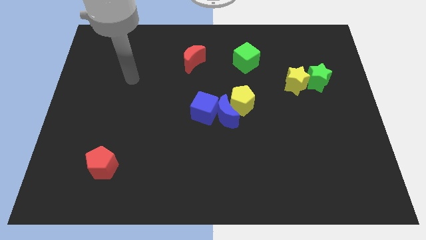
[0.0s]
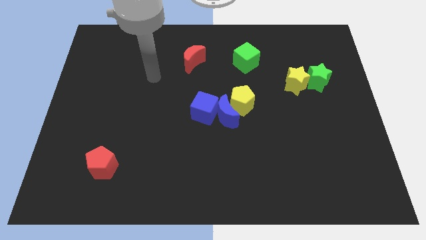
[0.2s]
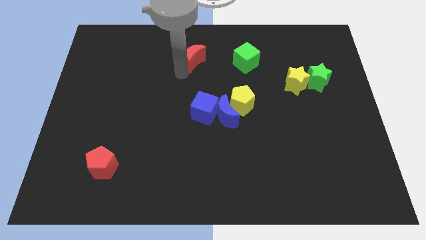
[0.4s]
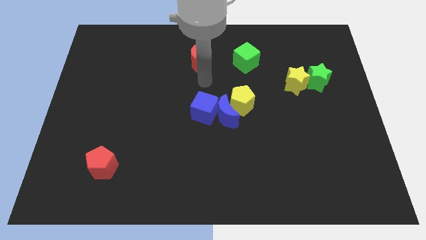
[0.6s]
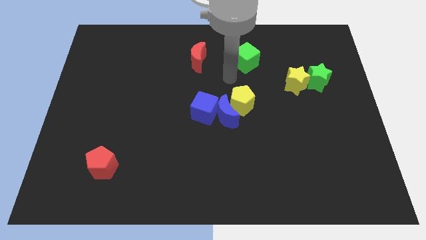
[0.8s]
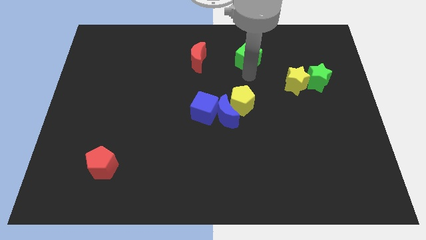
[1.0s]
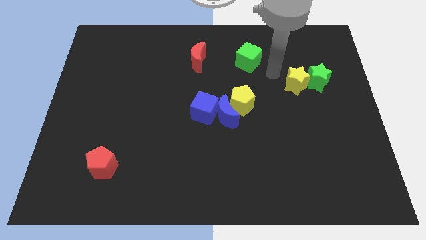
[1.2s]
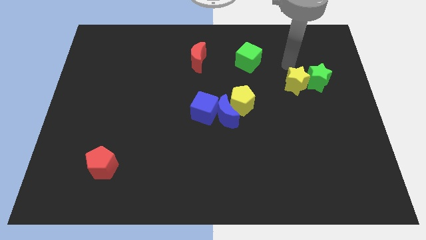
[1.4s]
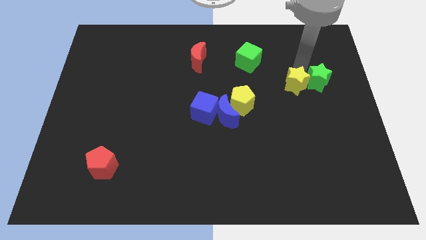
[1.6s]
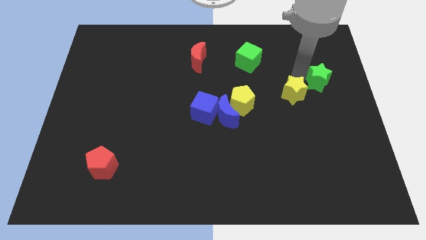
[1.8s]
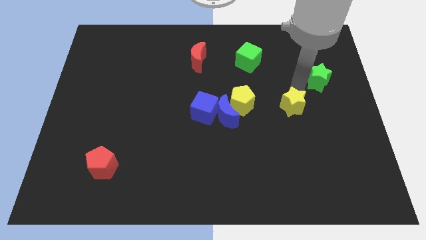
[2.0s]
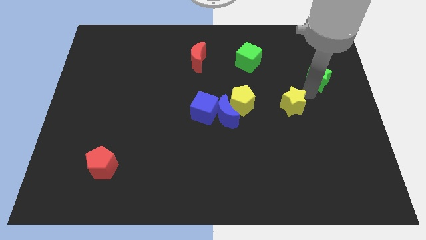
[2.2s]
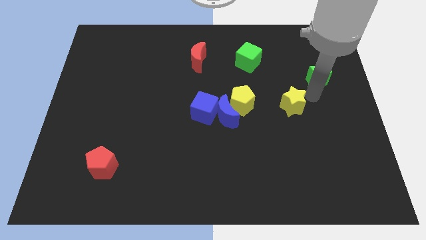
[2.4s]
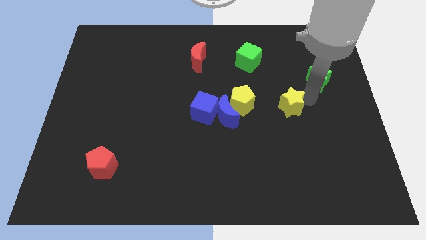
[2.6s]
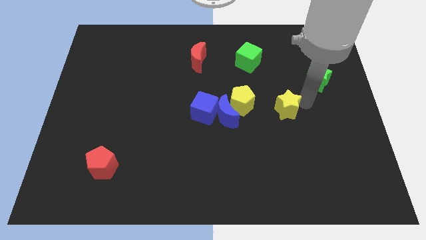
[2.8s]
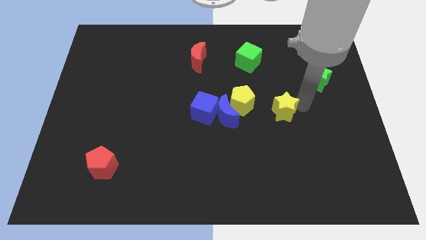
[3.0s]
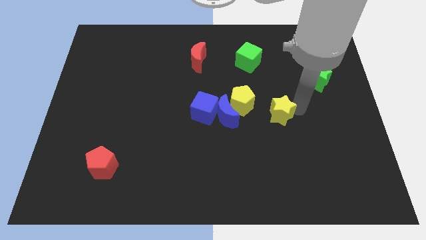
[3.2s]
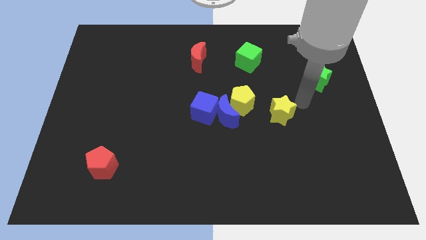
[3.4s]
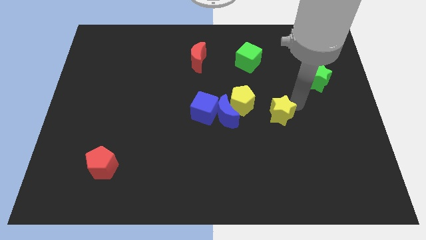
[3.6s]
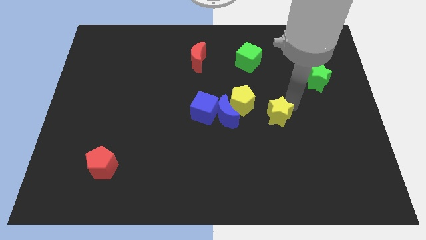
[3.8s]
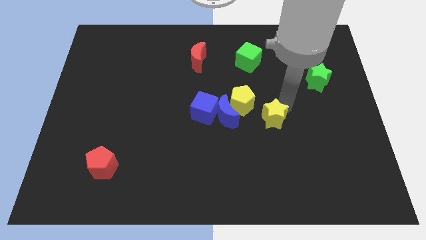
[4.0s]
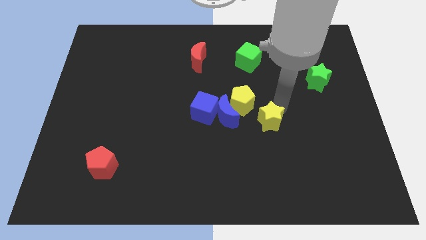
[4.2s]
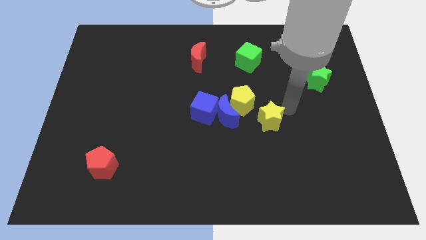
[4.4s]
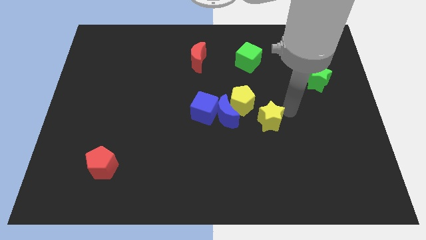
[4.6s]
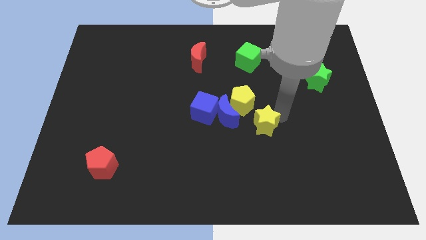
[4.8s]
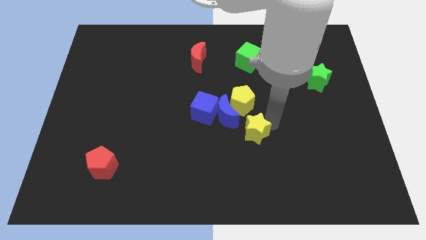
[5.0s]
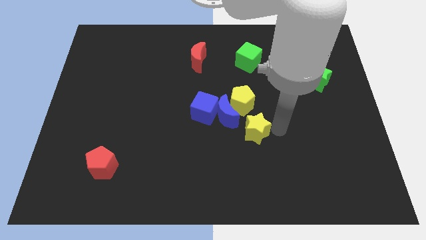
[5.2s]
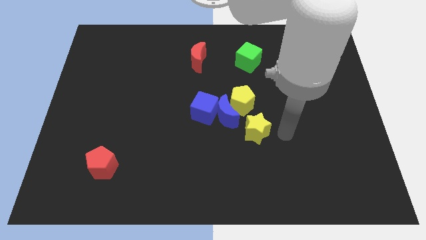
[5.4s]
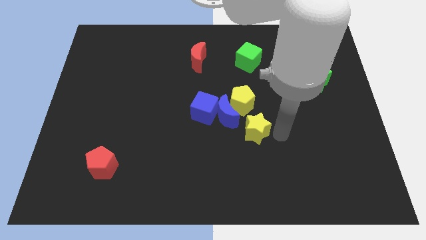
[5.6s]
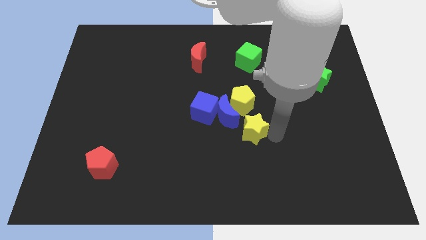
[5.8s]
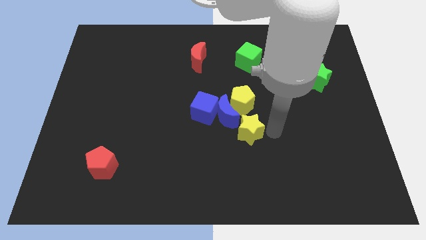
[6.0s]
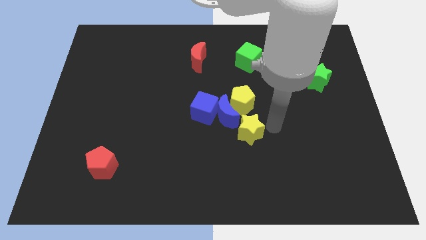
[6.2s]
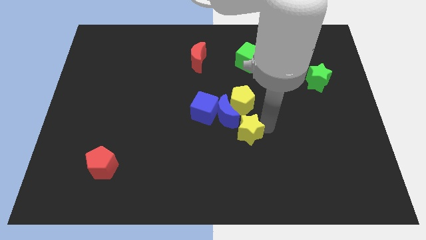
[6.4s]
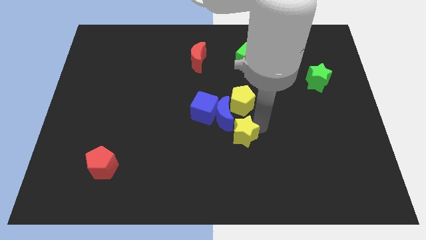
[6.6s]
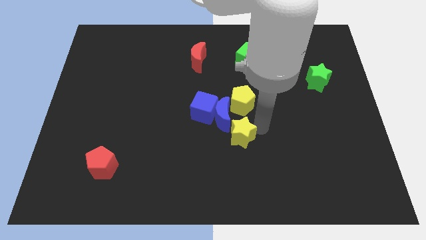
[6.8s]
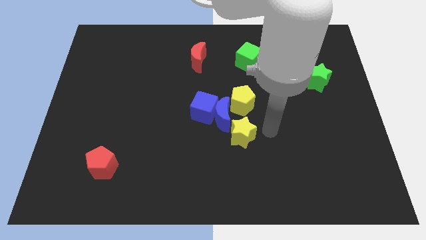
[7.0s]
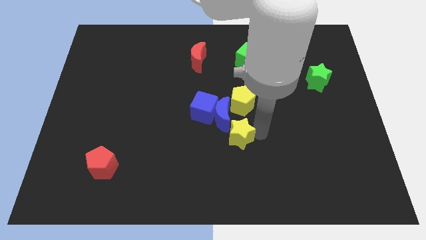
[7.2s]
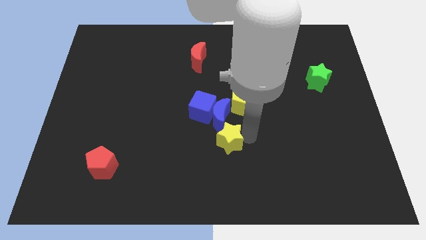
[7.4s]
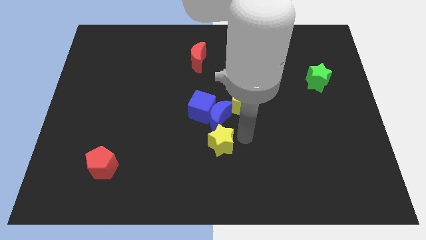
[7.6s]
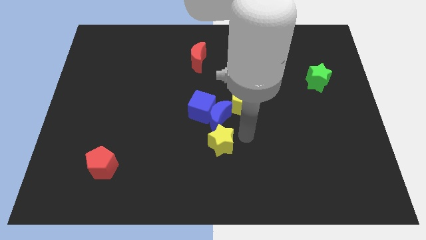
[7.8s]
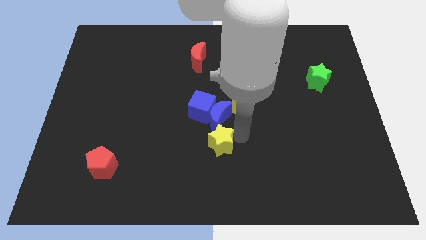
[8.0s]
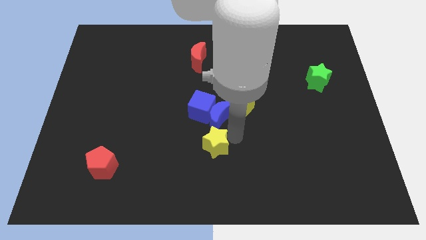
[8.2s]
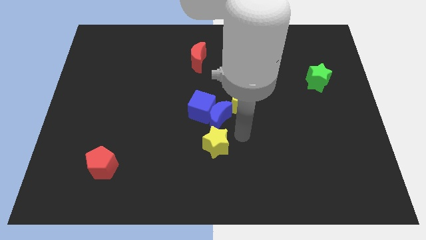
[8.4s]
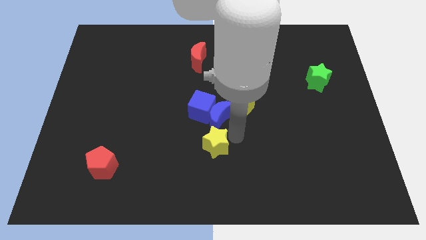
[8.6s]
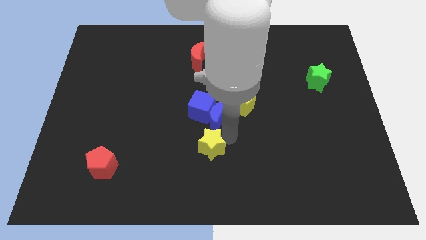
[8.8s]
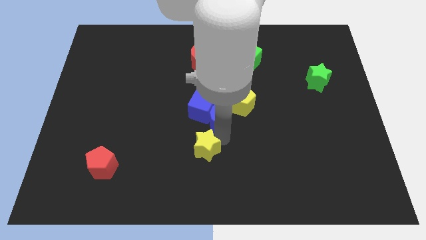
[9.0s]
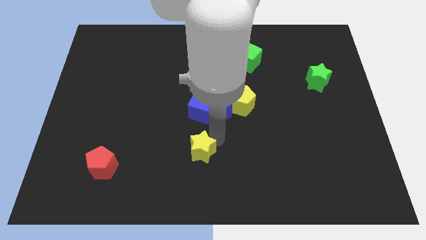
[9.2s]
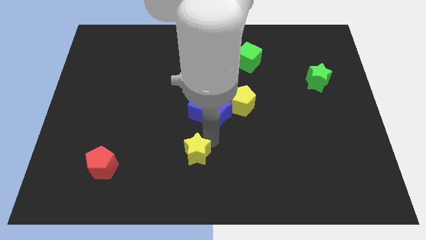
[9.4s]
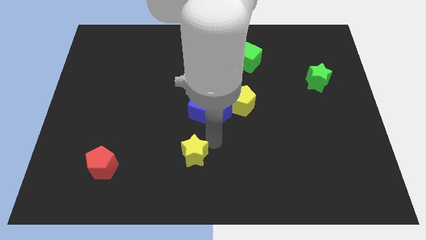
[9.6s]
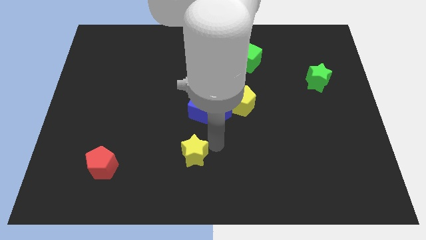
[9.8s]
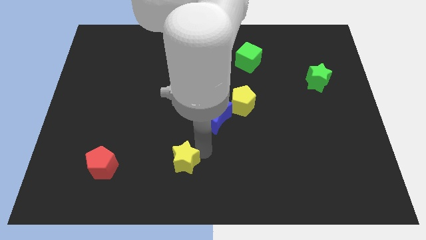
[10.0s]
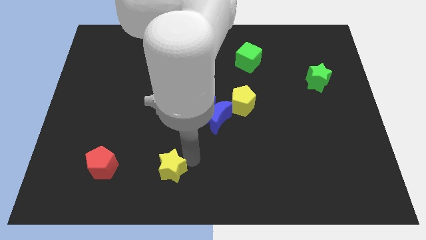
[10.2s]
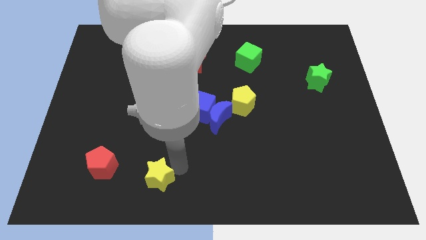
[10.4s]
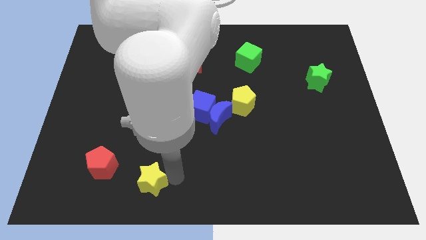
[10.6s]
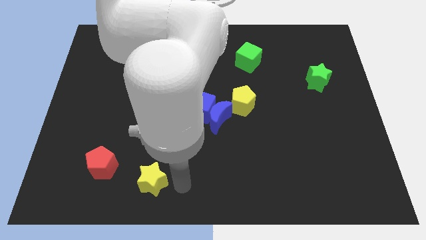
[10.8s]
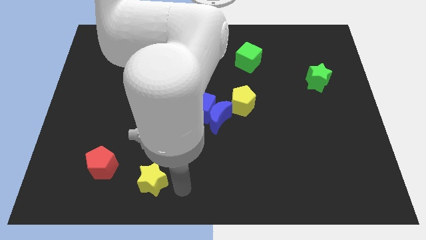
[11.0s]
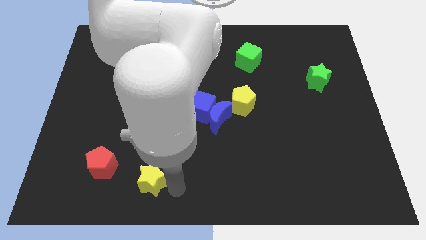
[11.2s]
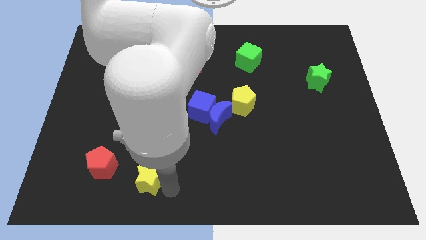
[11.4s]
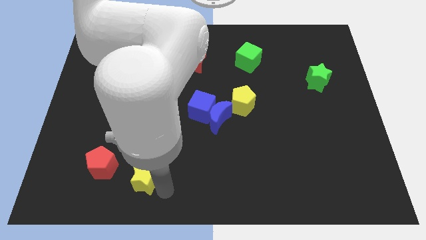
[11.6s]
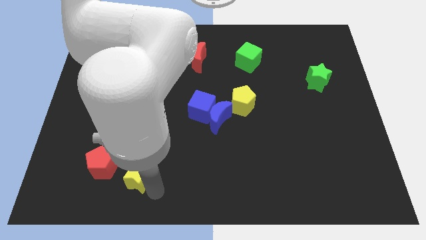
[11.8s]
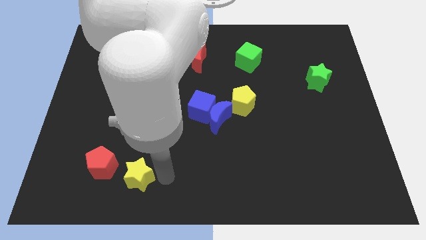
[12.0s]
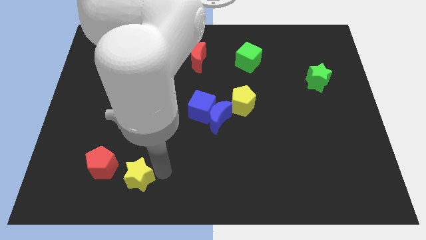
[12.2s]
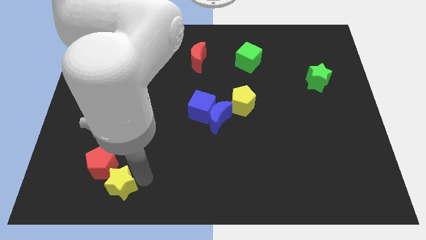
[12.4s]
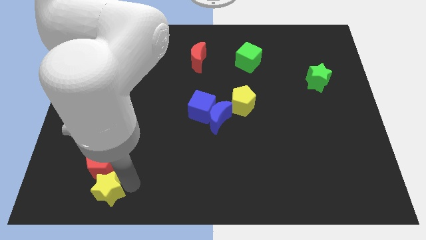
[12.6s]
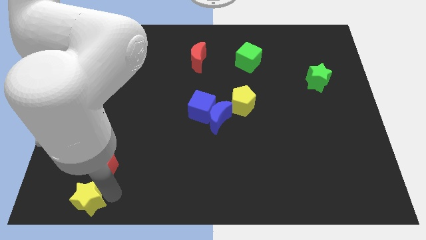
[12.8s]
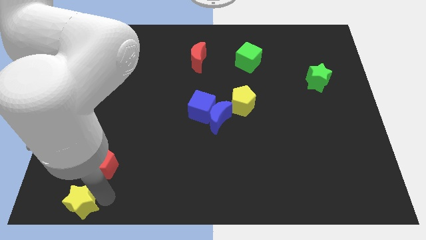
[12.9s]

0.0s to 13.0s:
slide the yellow star to the lower left corner

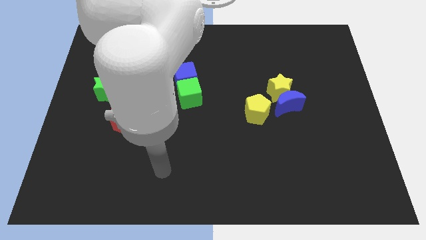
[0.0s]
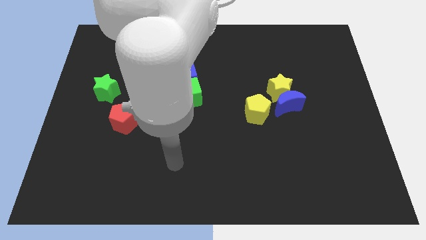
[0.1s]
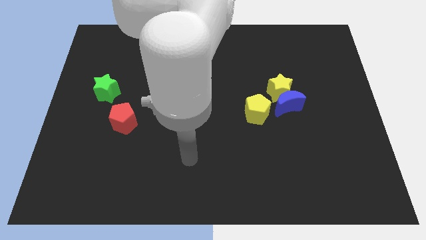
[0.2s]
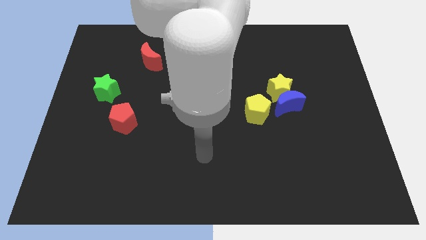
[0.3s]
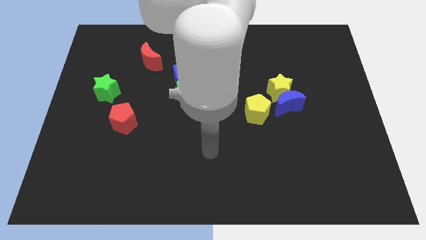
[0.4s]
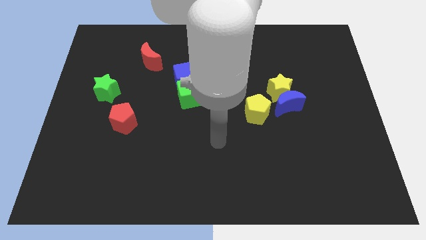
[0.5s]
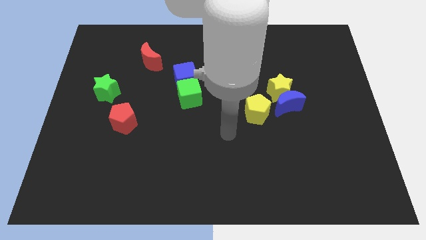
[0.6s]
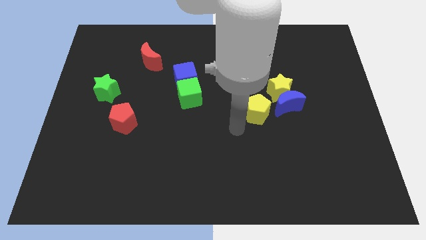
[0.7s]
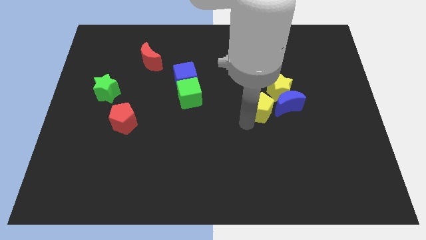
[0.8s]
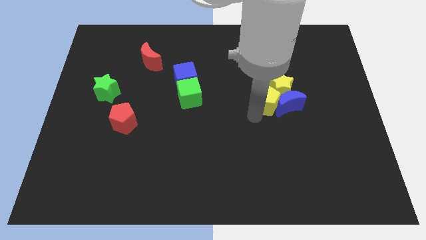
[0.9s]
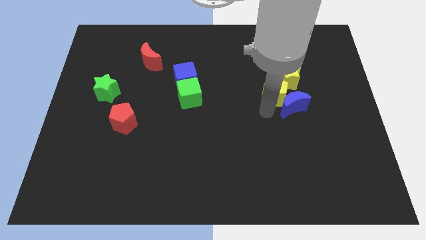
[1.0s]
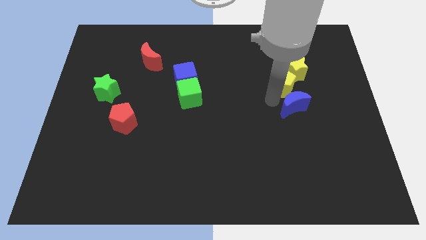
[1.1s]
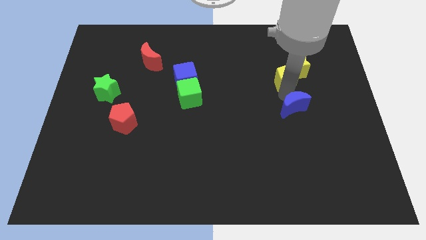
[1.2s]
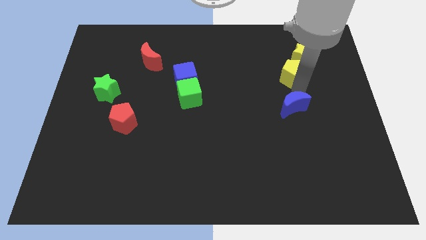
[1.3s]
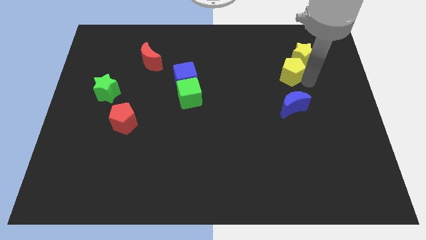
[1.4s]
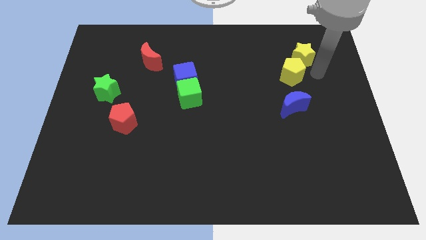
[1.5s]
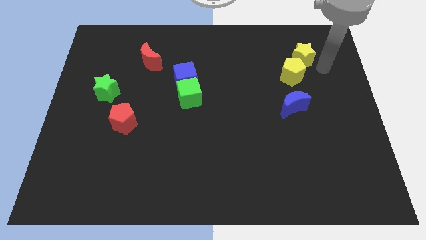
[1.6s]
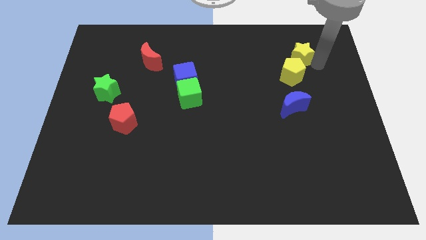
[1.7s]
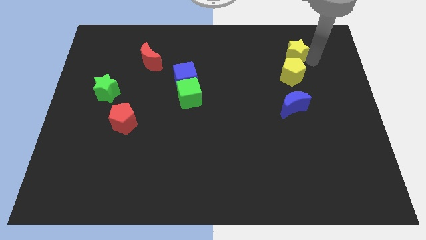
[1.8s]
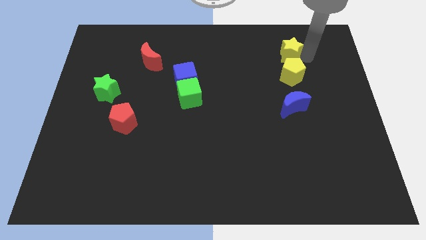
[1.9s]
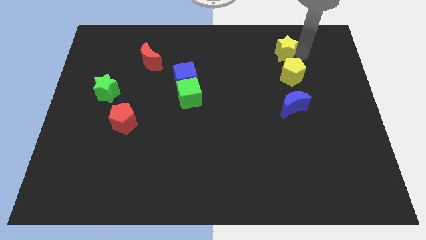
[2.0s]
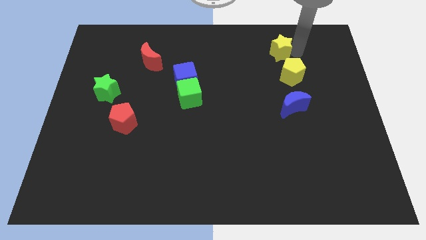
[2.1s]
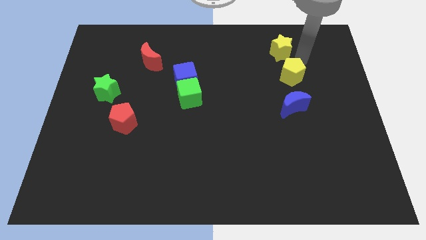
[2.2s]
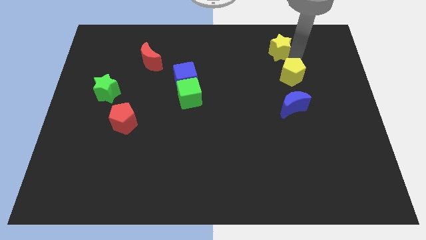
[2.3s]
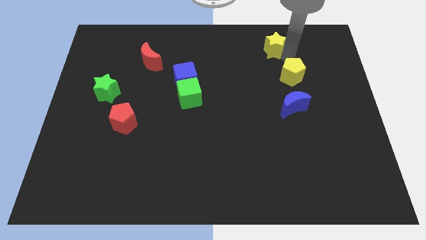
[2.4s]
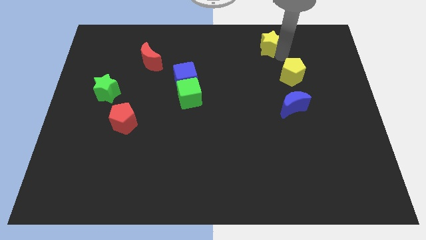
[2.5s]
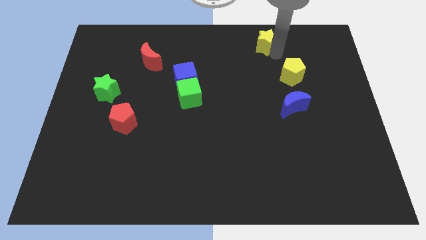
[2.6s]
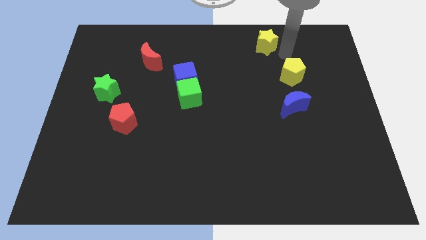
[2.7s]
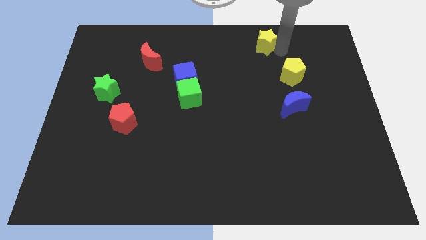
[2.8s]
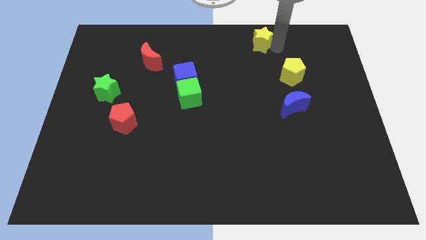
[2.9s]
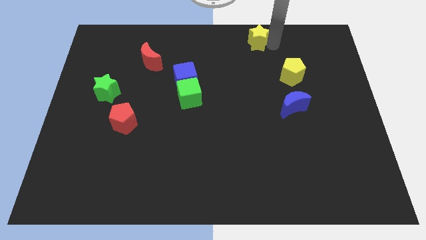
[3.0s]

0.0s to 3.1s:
slide the yellow star to the top side
